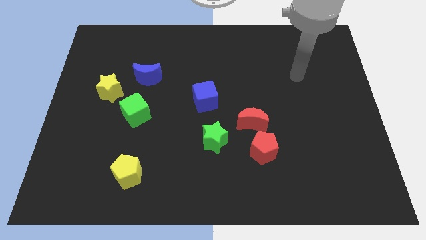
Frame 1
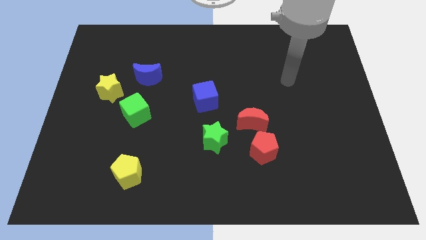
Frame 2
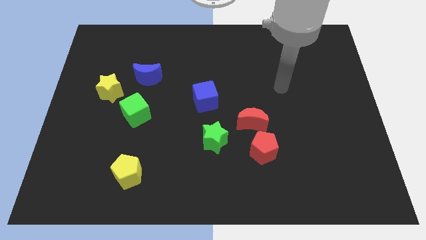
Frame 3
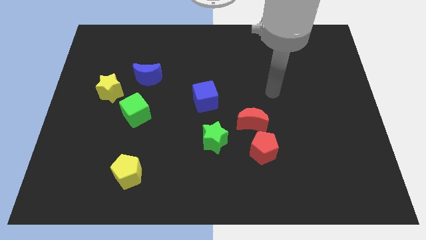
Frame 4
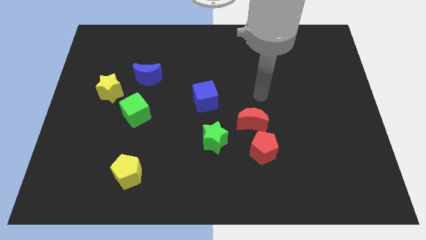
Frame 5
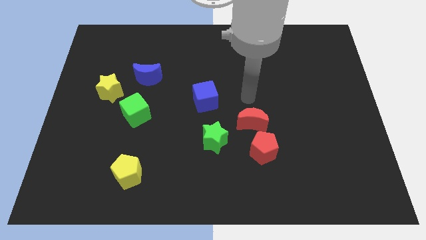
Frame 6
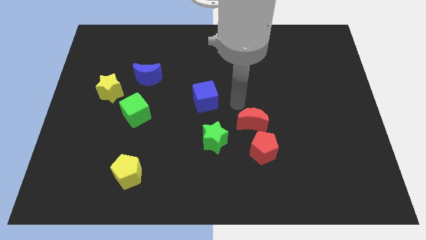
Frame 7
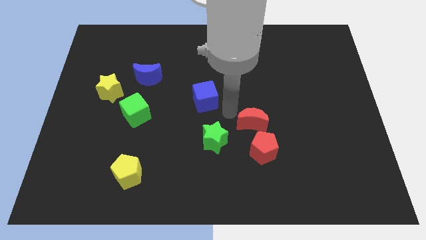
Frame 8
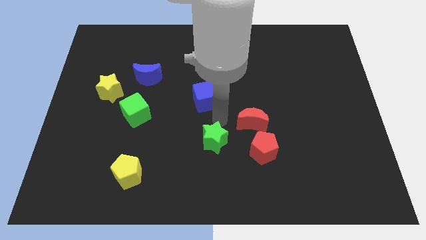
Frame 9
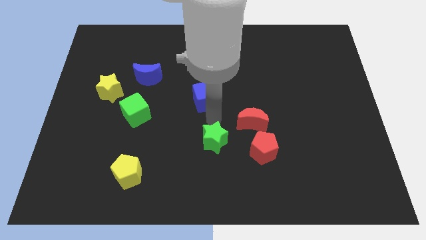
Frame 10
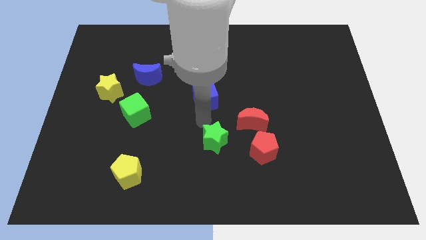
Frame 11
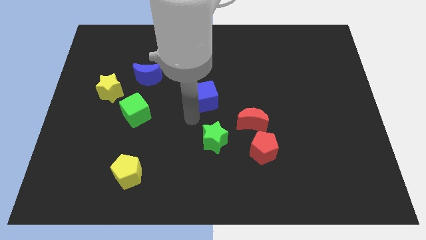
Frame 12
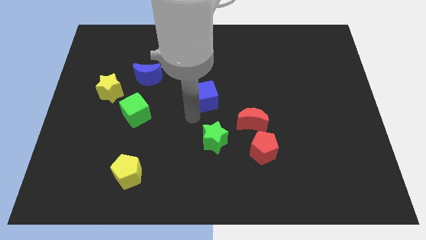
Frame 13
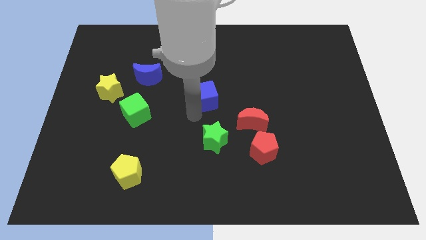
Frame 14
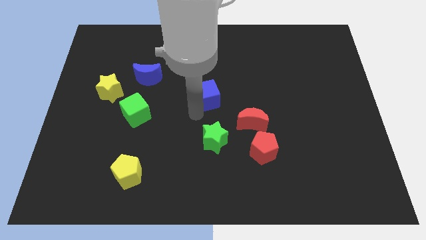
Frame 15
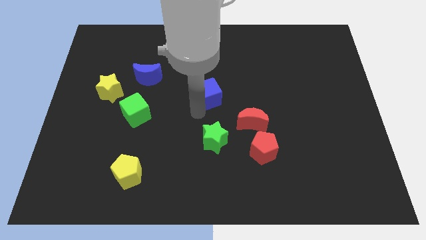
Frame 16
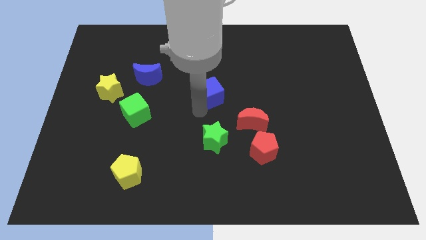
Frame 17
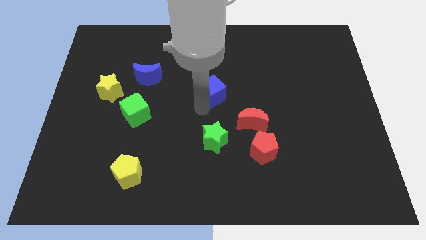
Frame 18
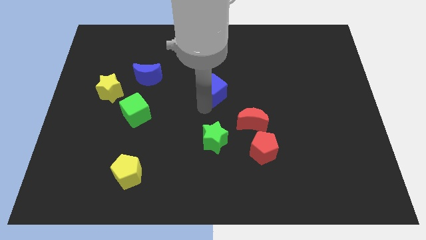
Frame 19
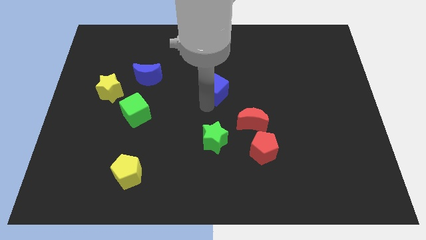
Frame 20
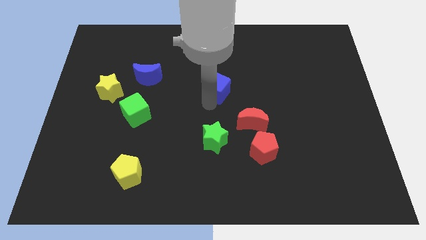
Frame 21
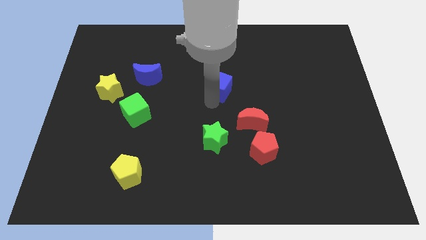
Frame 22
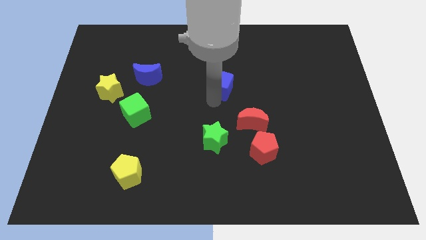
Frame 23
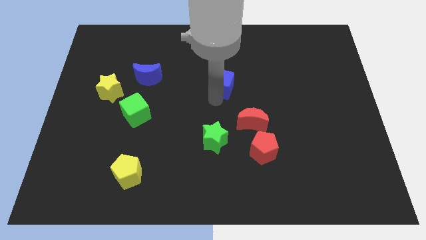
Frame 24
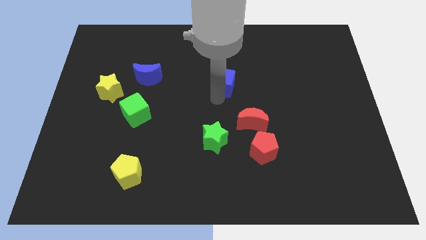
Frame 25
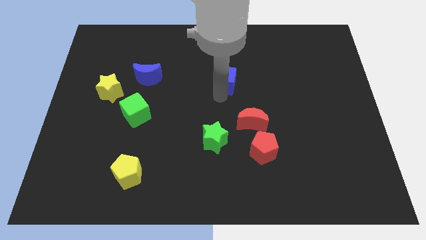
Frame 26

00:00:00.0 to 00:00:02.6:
slide the blue cube a little bit diagonally upwards and to the right

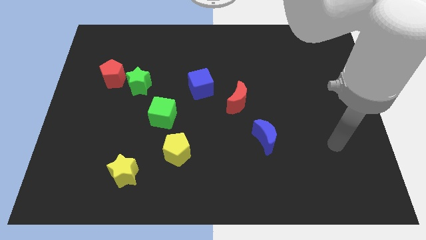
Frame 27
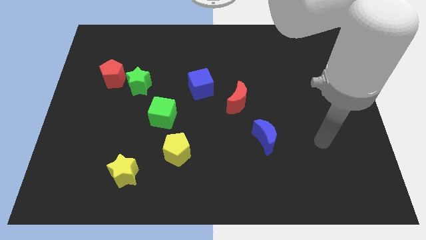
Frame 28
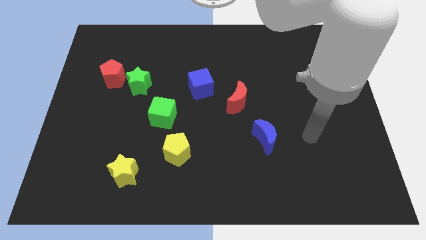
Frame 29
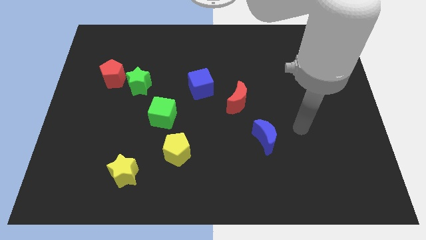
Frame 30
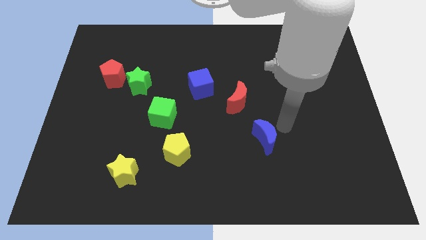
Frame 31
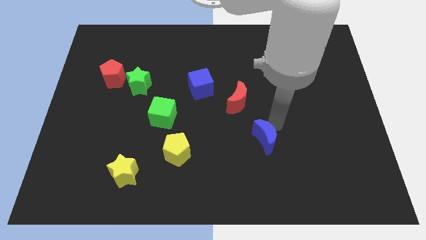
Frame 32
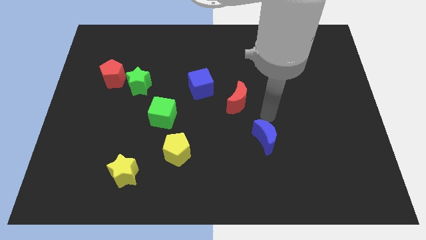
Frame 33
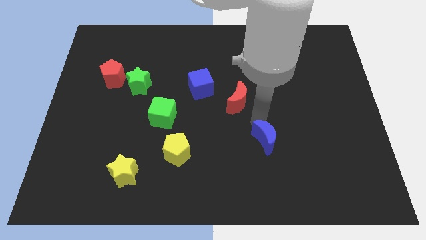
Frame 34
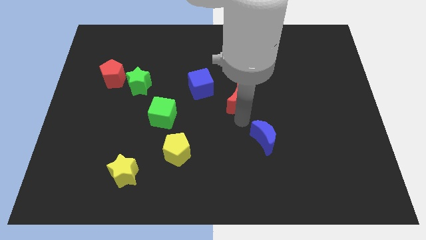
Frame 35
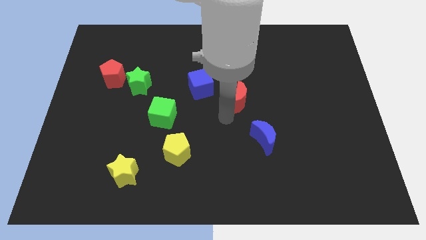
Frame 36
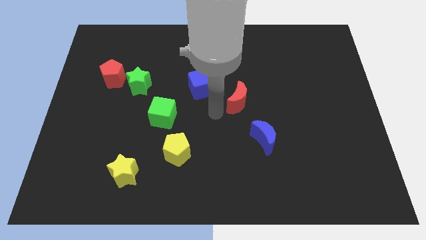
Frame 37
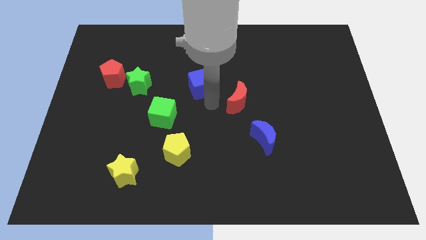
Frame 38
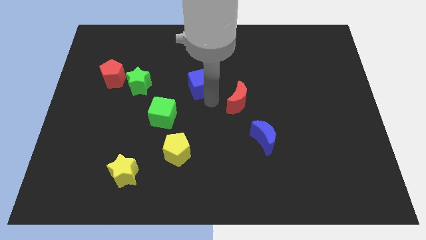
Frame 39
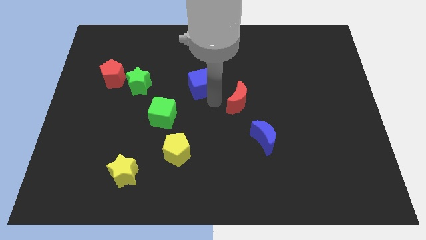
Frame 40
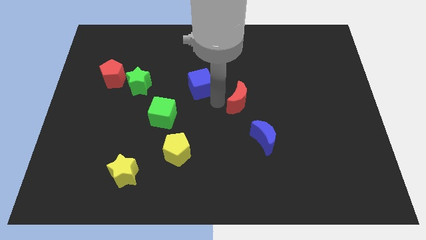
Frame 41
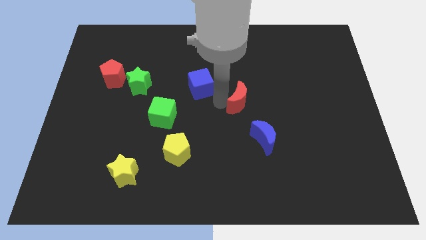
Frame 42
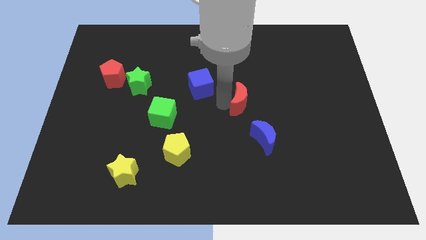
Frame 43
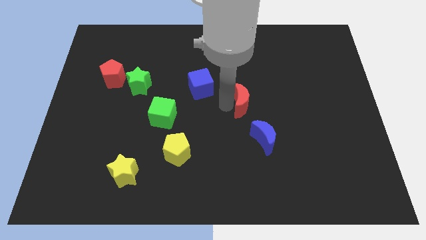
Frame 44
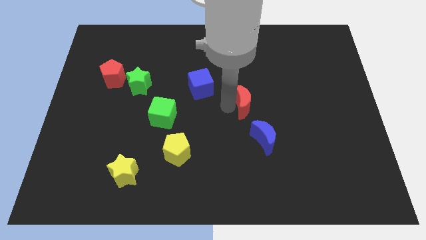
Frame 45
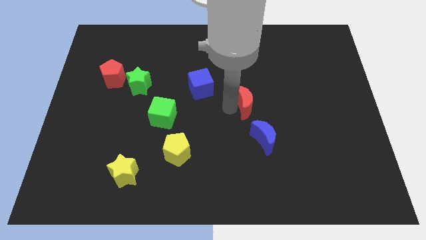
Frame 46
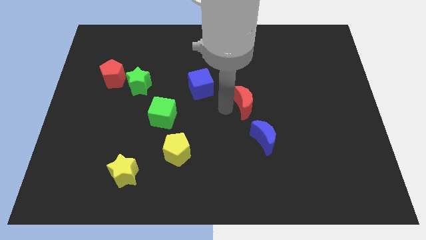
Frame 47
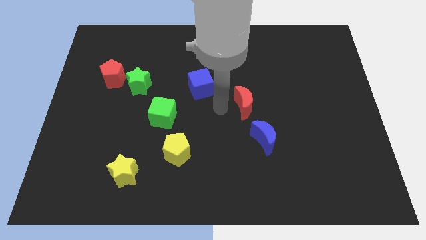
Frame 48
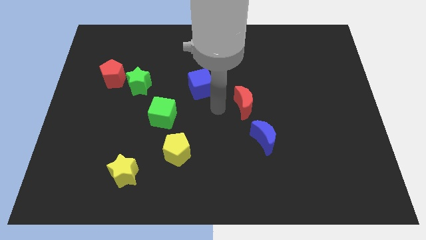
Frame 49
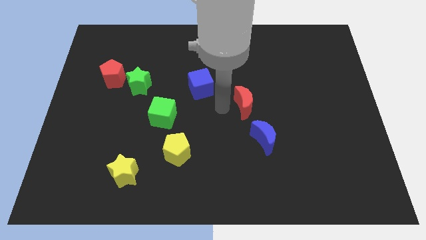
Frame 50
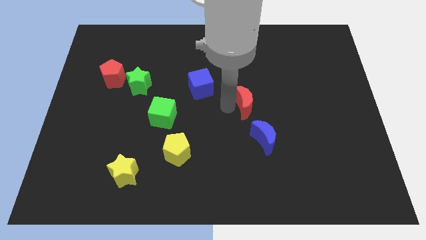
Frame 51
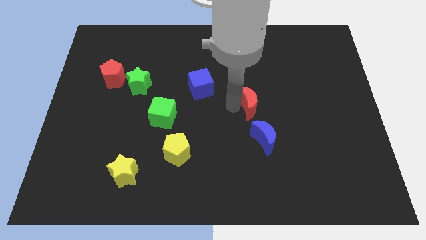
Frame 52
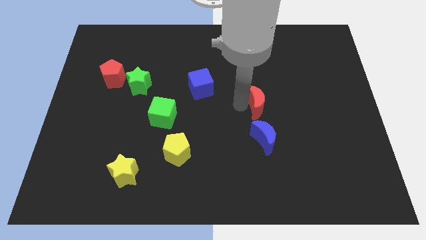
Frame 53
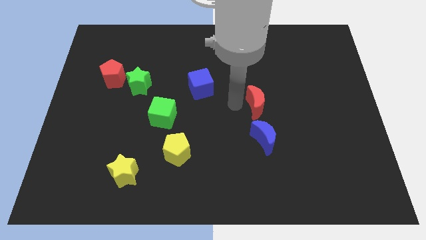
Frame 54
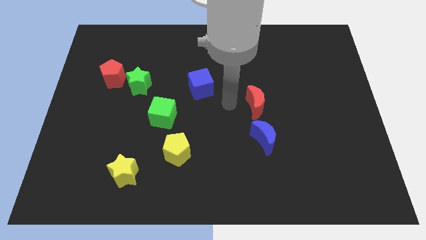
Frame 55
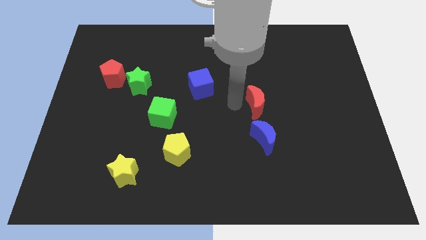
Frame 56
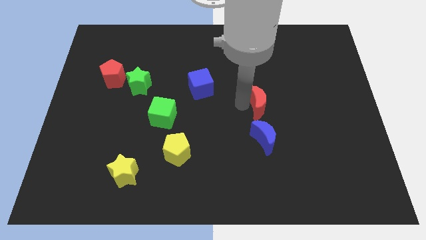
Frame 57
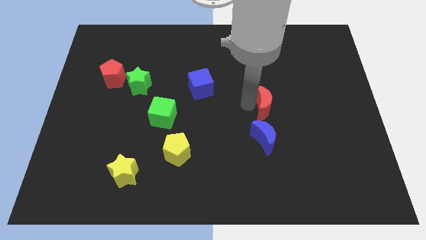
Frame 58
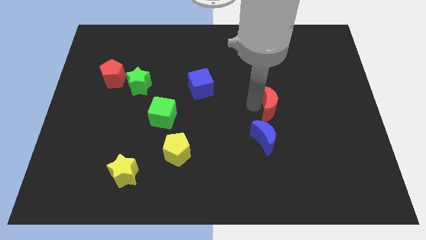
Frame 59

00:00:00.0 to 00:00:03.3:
move the red moon slightly to the right

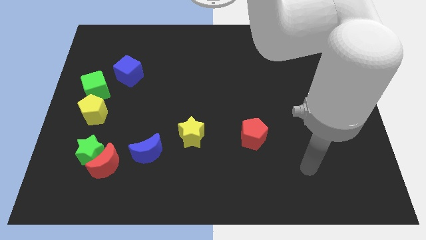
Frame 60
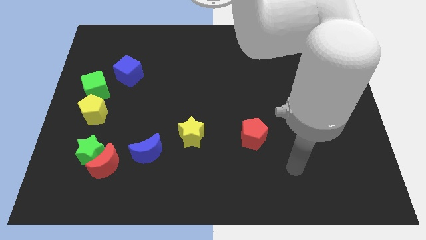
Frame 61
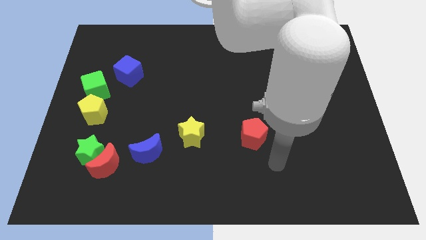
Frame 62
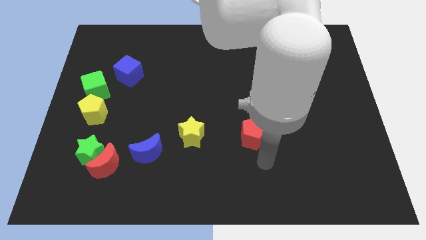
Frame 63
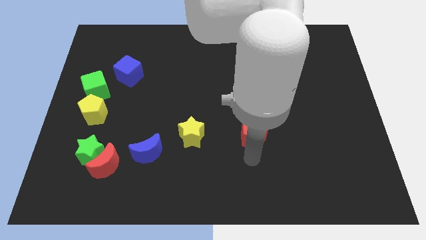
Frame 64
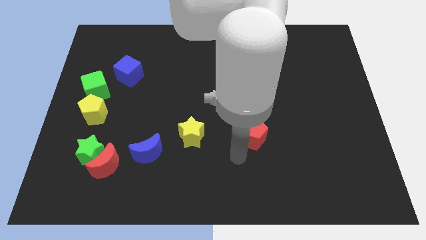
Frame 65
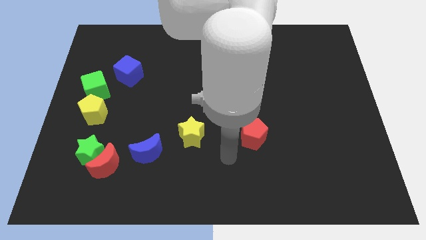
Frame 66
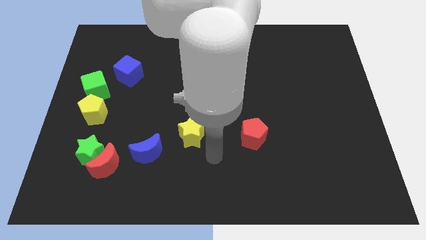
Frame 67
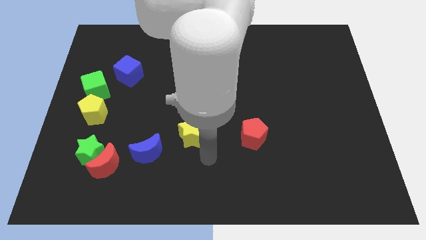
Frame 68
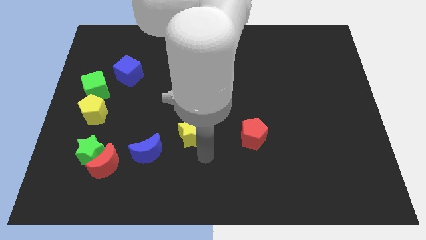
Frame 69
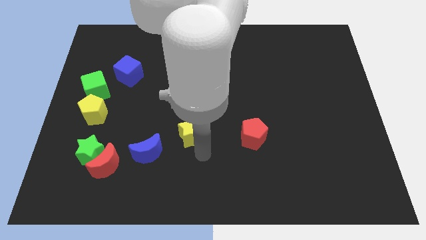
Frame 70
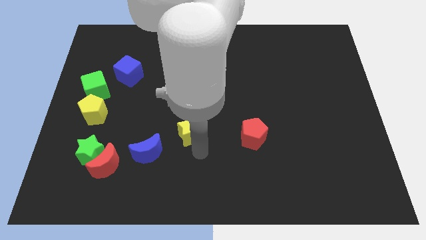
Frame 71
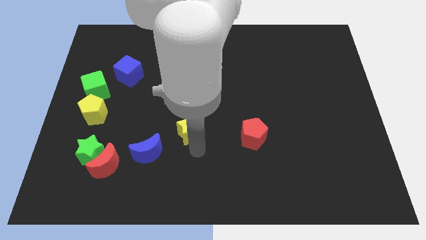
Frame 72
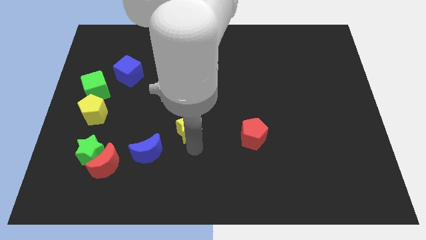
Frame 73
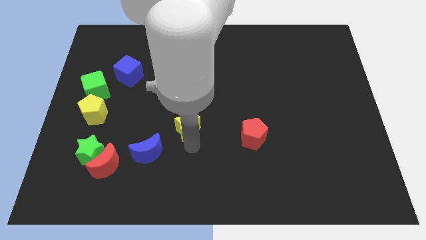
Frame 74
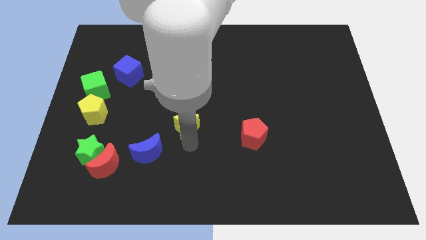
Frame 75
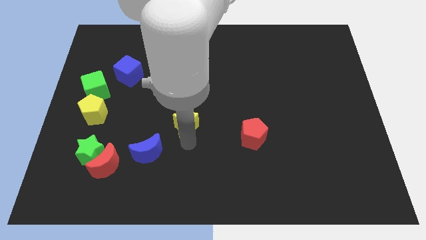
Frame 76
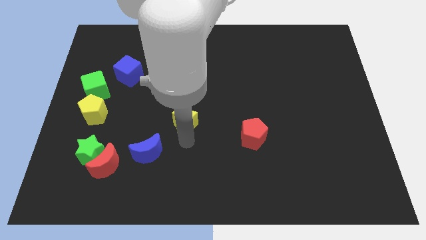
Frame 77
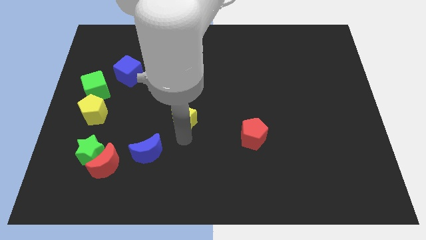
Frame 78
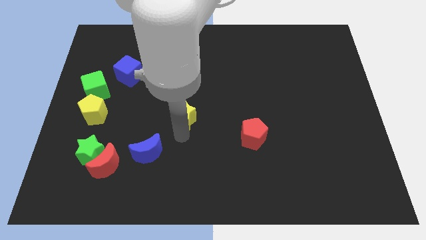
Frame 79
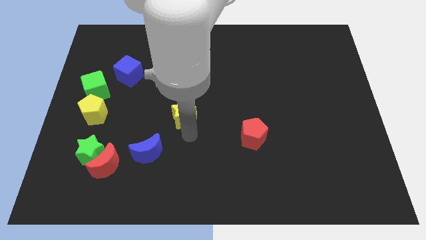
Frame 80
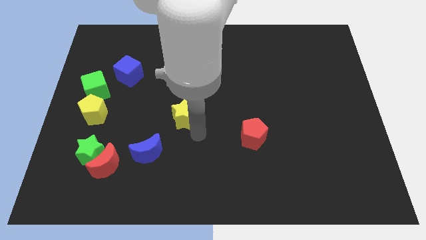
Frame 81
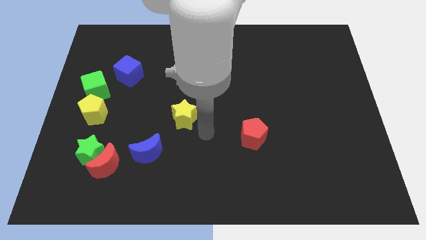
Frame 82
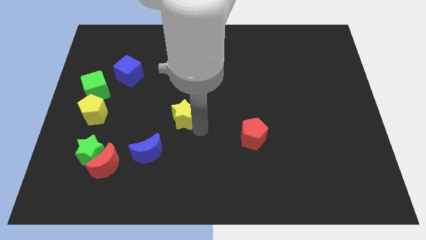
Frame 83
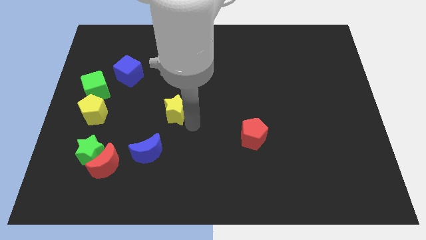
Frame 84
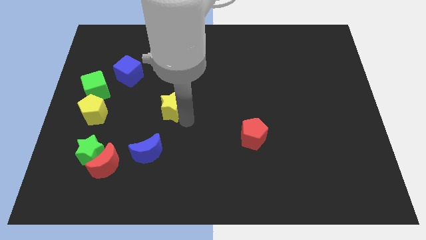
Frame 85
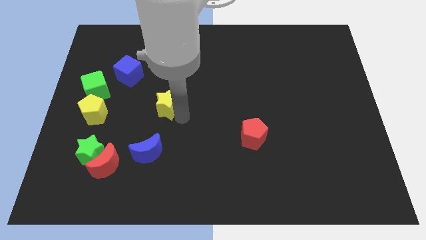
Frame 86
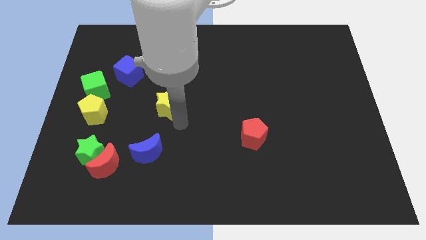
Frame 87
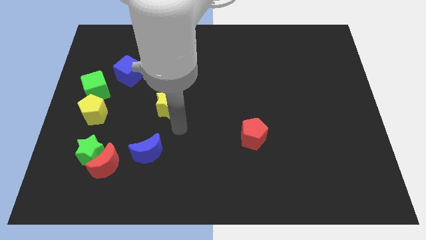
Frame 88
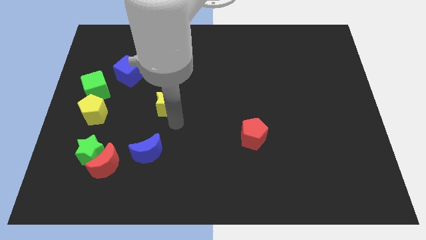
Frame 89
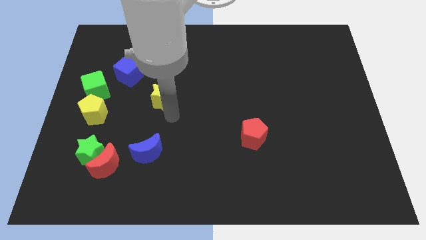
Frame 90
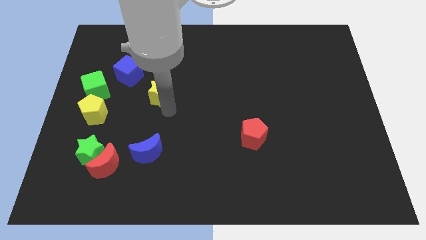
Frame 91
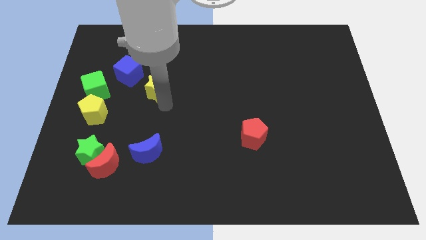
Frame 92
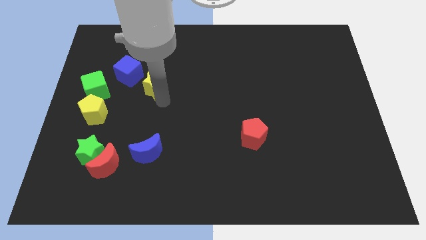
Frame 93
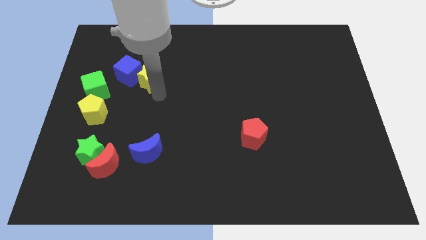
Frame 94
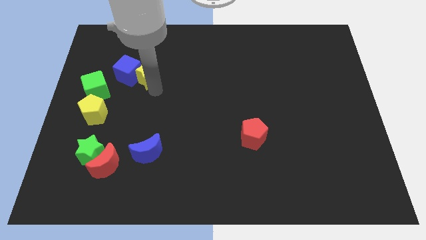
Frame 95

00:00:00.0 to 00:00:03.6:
slide the yellow star diagonally upwards and to the left
